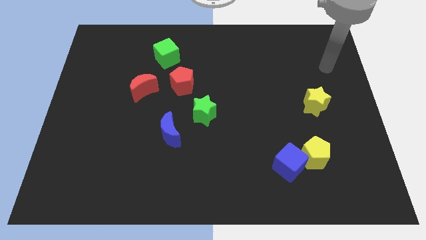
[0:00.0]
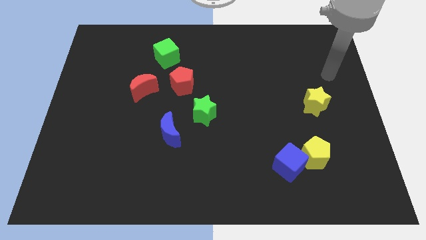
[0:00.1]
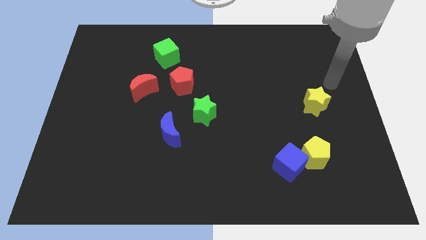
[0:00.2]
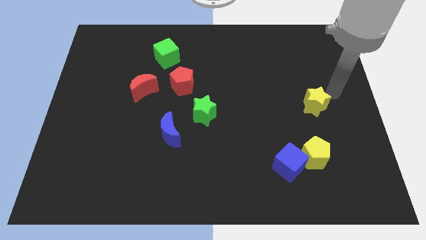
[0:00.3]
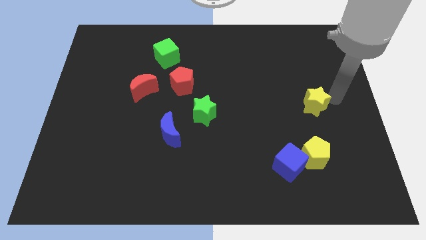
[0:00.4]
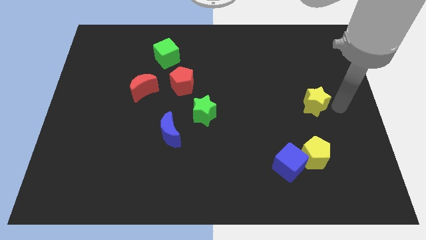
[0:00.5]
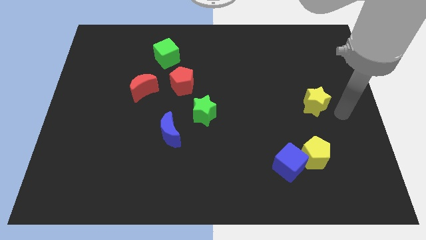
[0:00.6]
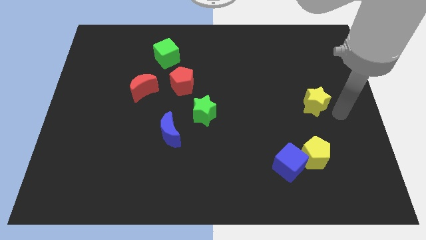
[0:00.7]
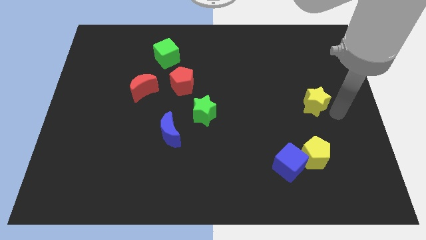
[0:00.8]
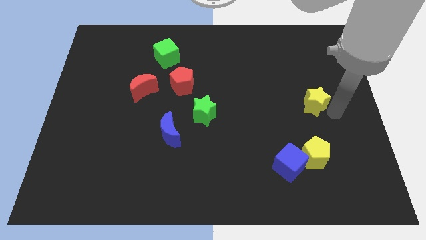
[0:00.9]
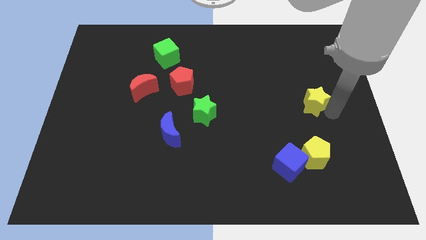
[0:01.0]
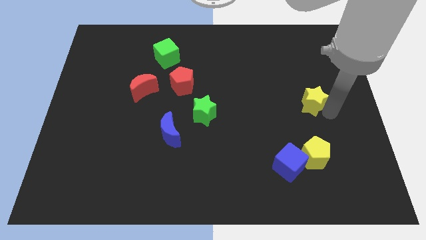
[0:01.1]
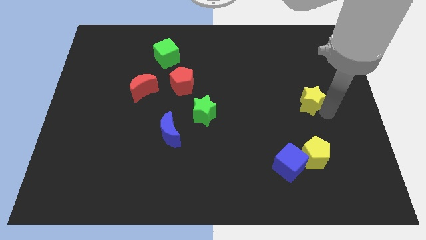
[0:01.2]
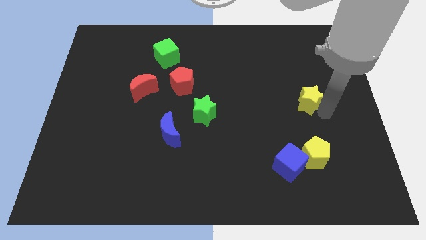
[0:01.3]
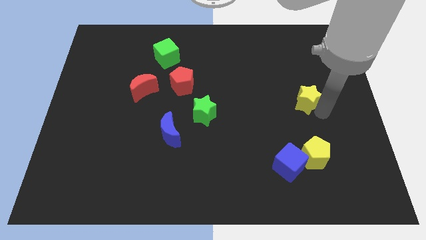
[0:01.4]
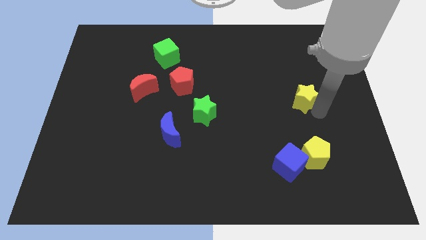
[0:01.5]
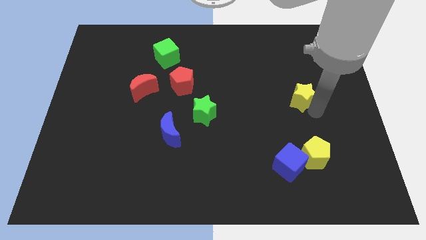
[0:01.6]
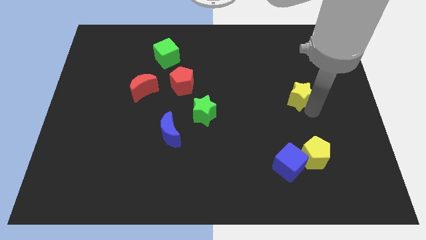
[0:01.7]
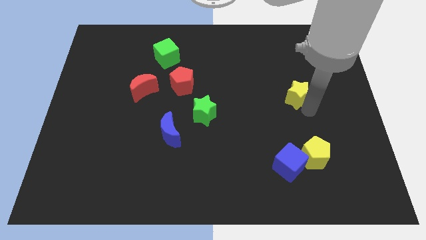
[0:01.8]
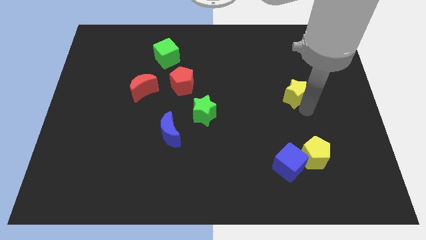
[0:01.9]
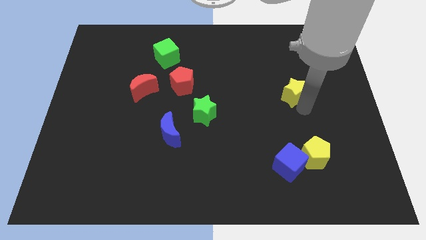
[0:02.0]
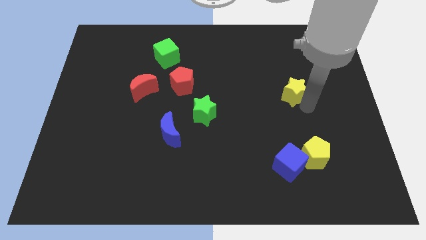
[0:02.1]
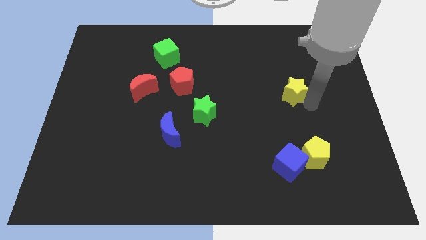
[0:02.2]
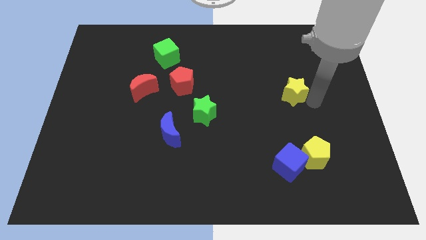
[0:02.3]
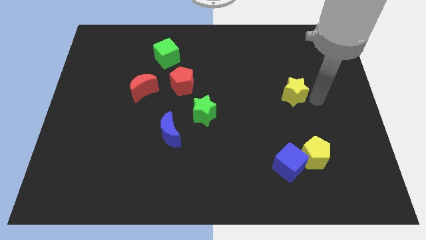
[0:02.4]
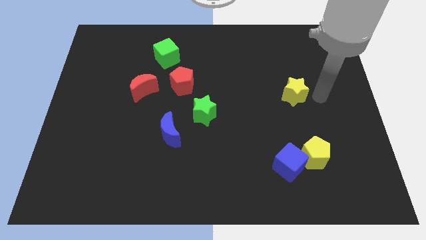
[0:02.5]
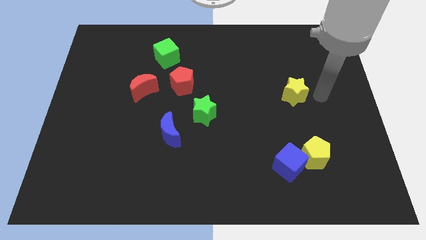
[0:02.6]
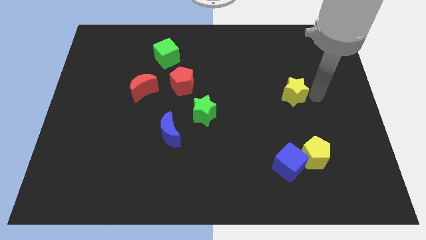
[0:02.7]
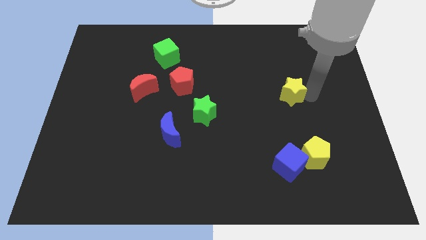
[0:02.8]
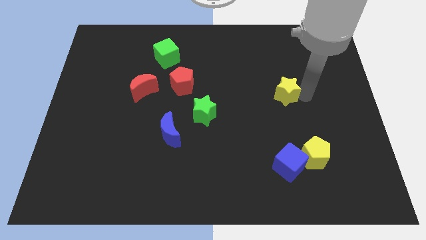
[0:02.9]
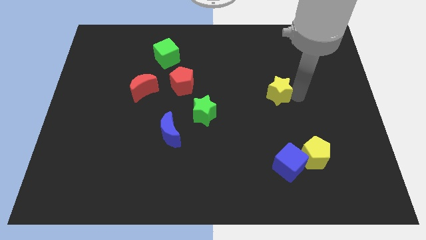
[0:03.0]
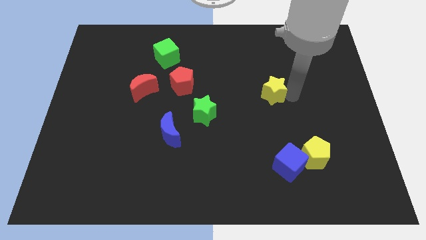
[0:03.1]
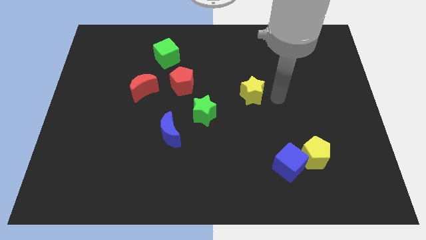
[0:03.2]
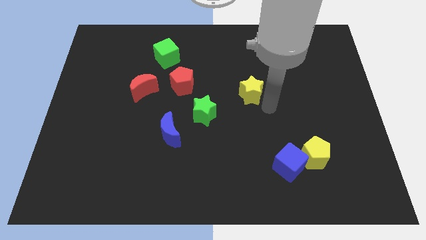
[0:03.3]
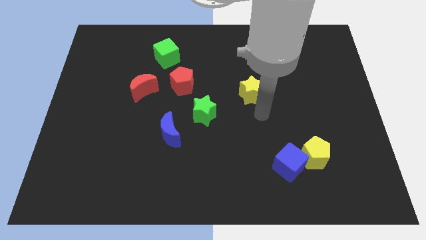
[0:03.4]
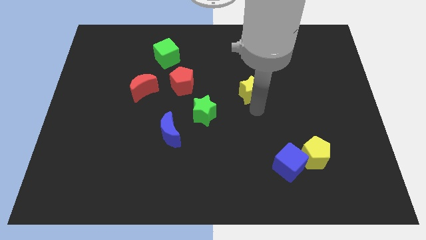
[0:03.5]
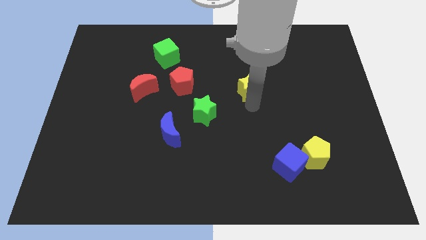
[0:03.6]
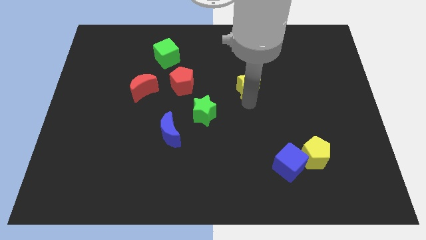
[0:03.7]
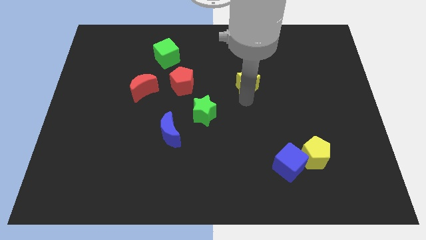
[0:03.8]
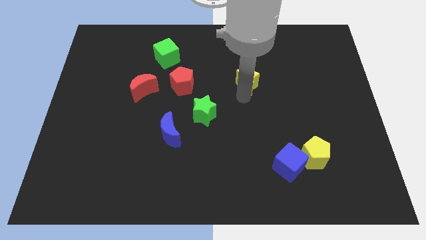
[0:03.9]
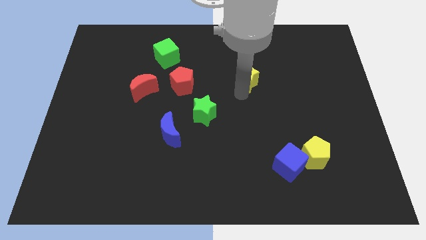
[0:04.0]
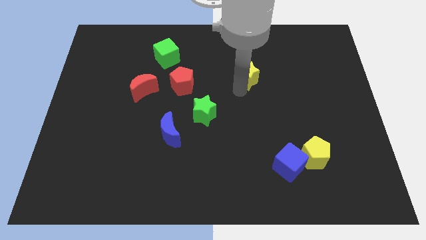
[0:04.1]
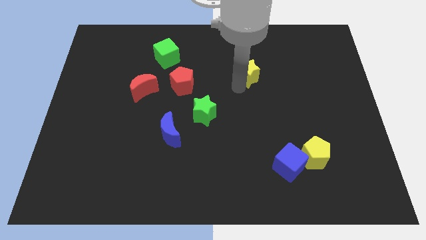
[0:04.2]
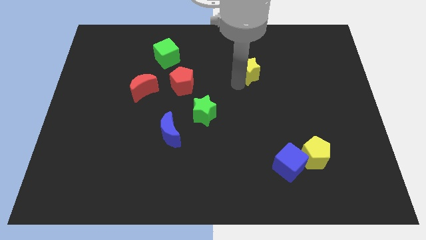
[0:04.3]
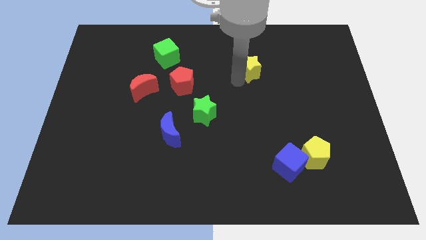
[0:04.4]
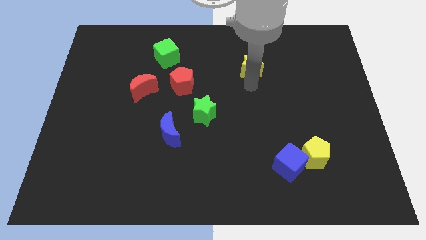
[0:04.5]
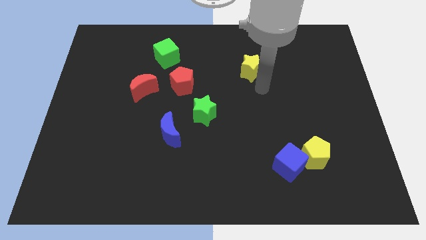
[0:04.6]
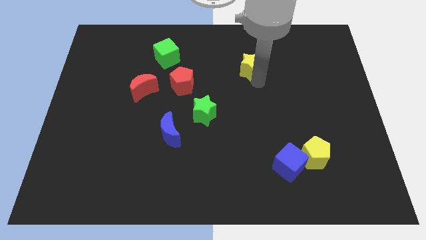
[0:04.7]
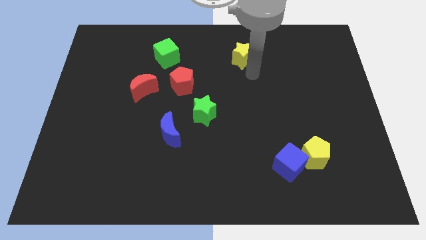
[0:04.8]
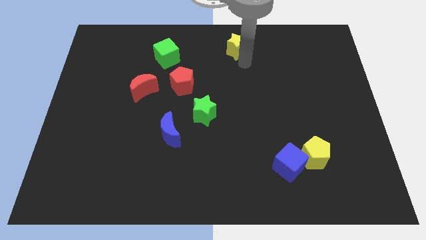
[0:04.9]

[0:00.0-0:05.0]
move the yellow star to the top side

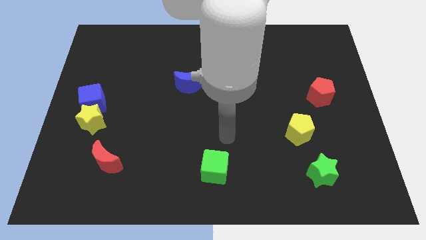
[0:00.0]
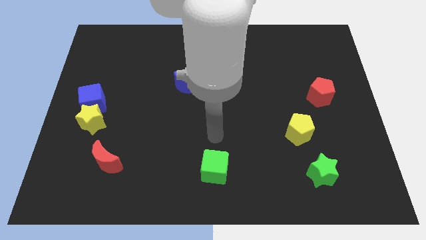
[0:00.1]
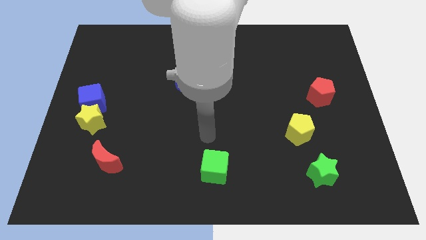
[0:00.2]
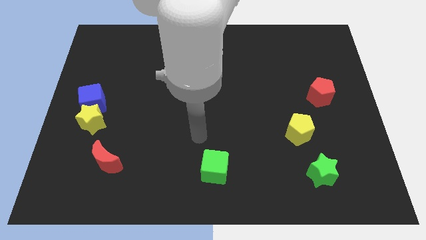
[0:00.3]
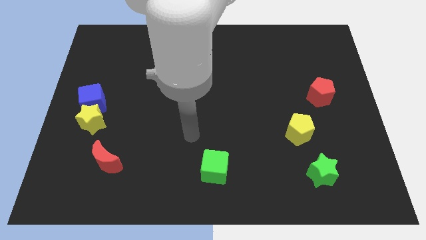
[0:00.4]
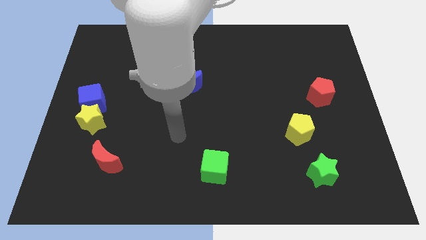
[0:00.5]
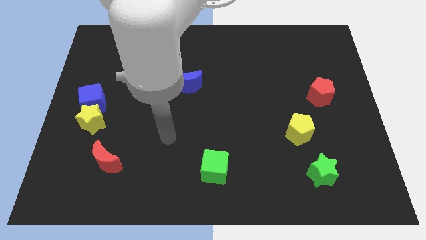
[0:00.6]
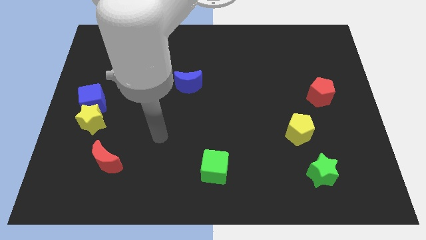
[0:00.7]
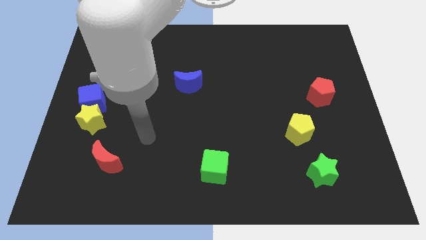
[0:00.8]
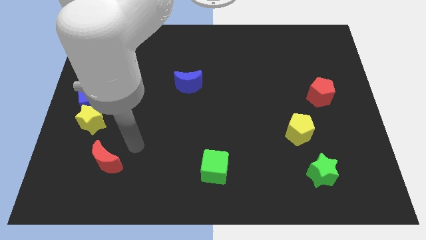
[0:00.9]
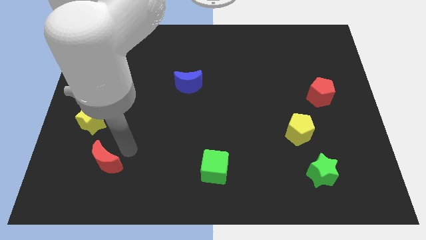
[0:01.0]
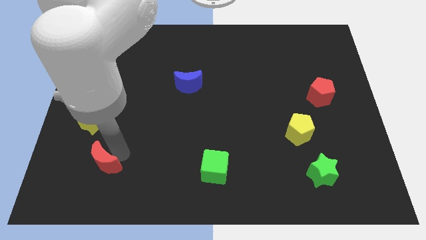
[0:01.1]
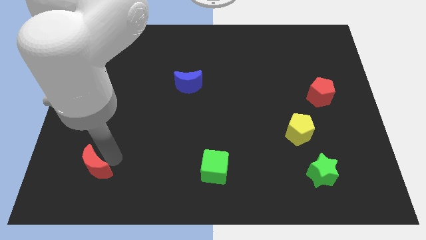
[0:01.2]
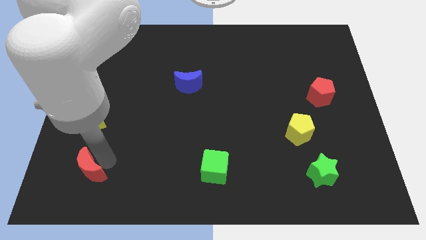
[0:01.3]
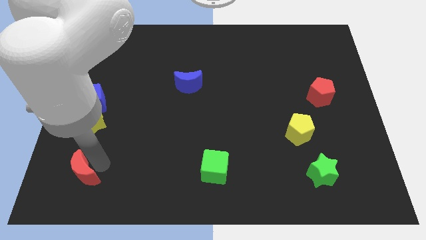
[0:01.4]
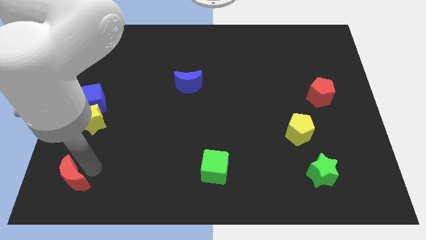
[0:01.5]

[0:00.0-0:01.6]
move the red moon to the bottom left
